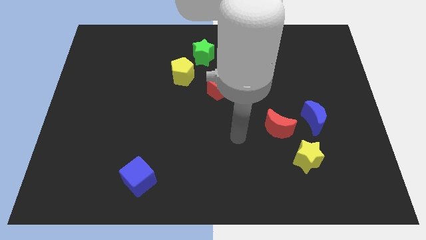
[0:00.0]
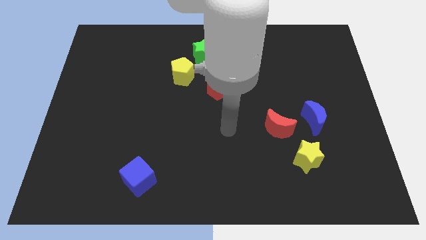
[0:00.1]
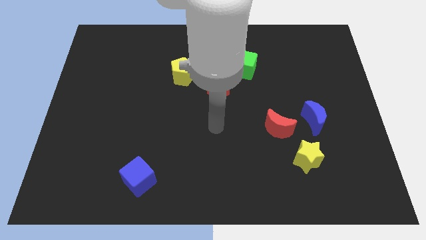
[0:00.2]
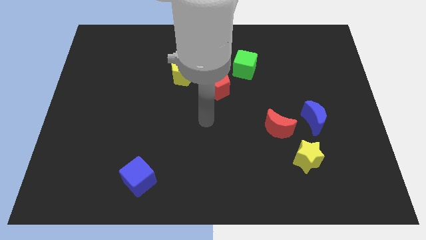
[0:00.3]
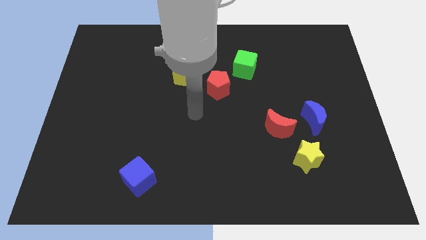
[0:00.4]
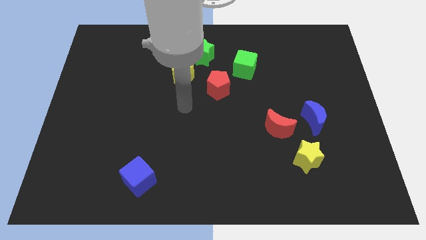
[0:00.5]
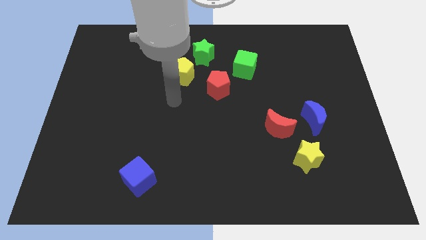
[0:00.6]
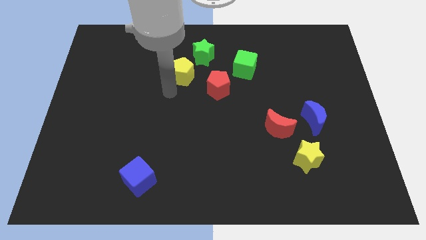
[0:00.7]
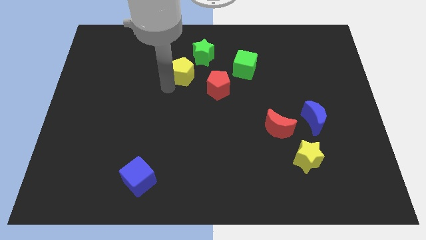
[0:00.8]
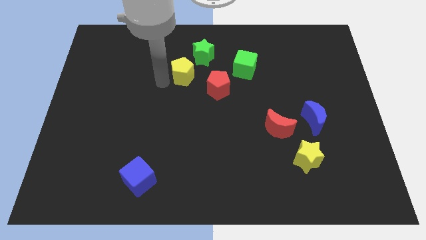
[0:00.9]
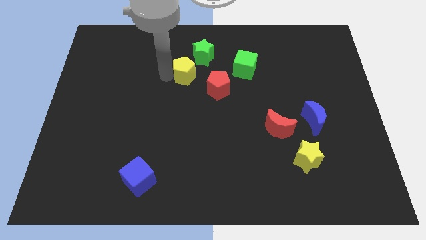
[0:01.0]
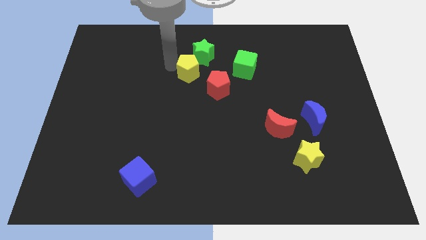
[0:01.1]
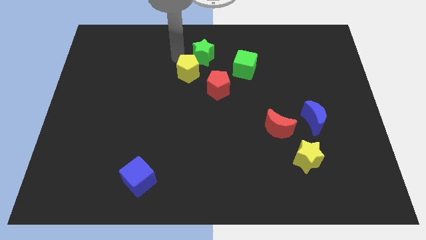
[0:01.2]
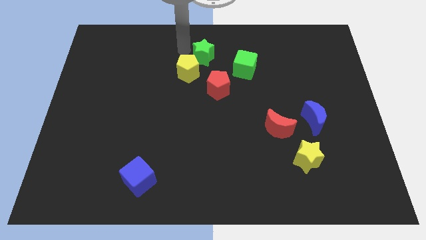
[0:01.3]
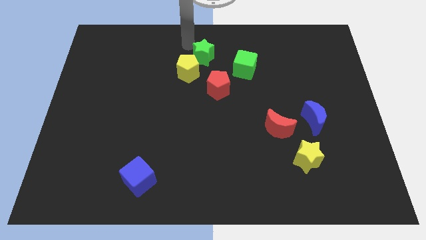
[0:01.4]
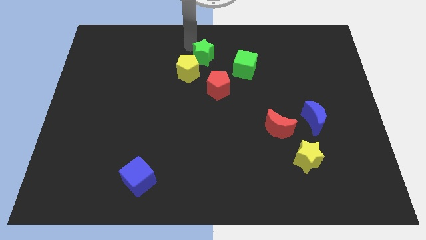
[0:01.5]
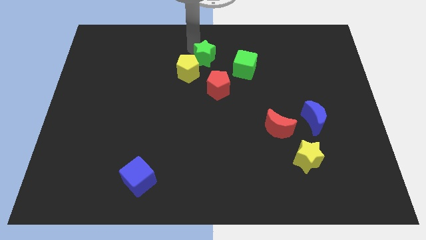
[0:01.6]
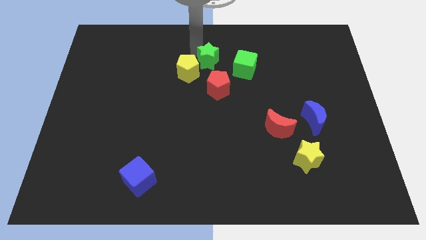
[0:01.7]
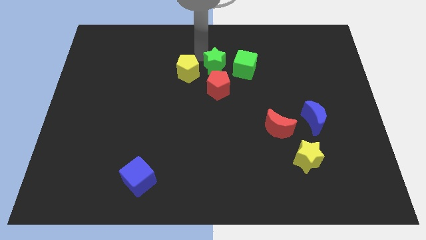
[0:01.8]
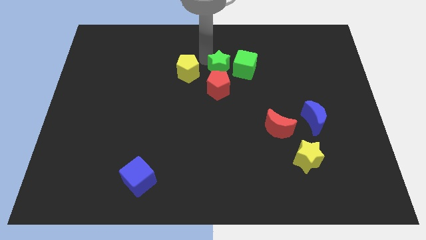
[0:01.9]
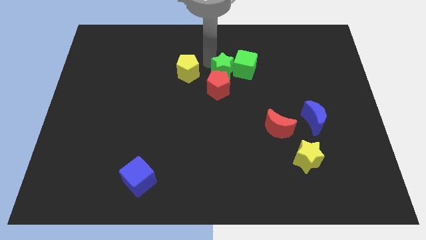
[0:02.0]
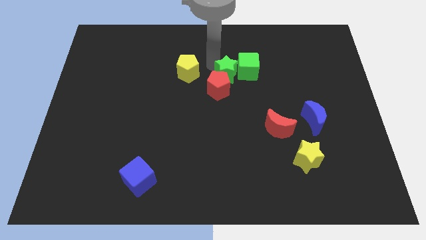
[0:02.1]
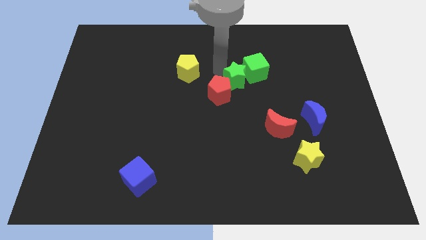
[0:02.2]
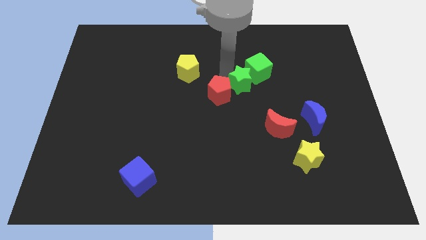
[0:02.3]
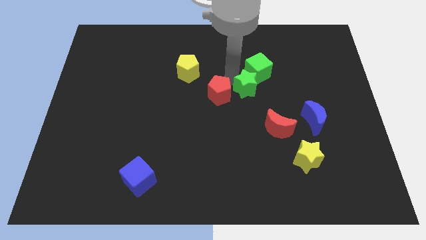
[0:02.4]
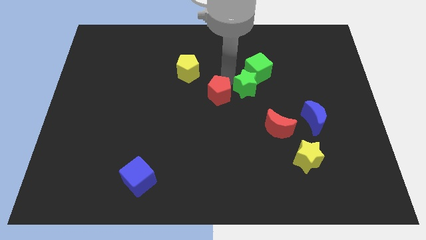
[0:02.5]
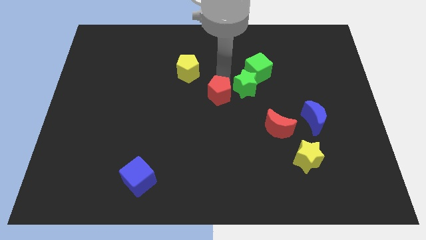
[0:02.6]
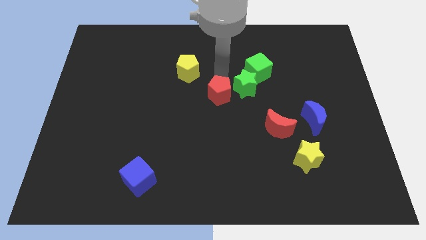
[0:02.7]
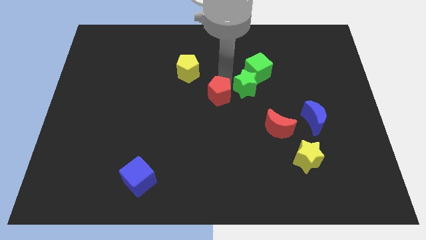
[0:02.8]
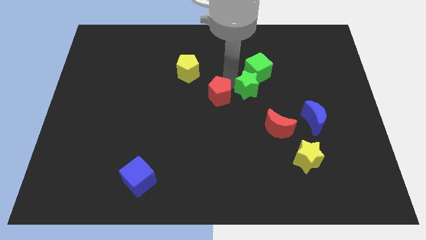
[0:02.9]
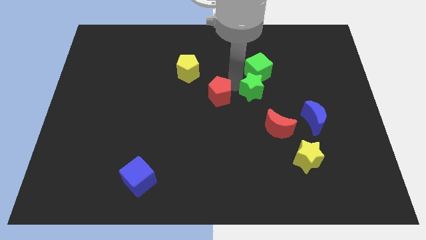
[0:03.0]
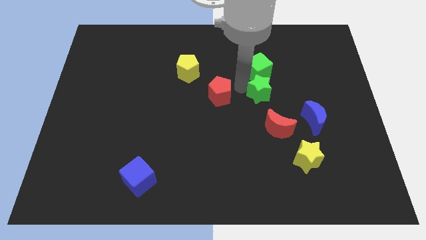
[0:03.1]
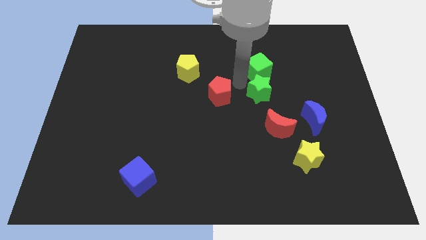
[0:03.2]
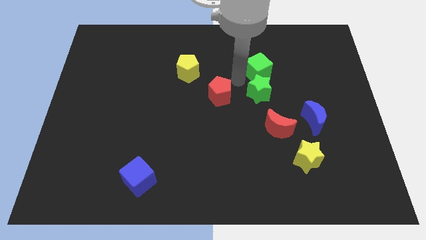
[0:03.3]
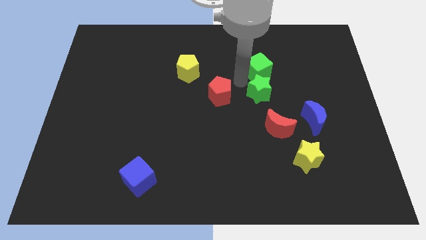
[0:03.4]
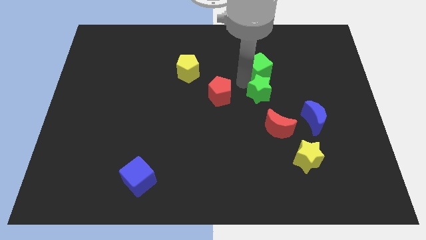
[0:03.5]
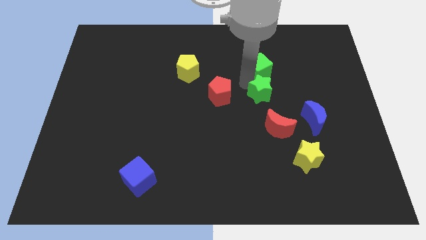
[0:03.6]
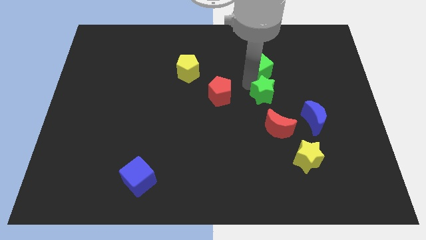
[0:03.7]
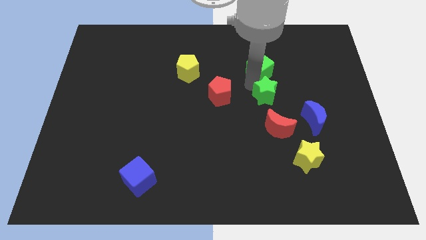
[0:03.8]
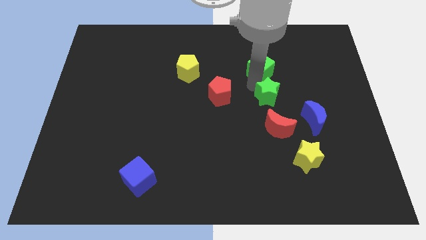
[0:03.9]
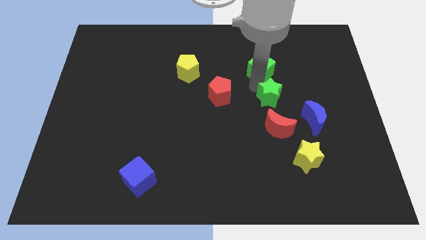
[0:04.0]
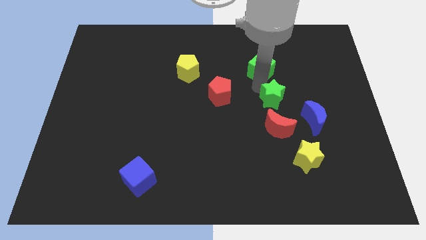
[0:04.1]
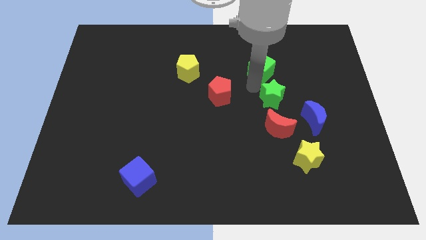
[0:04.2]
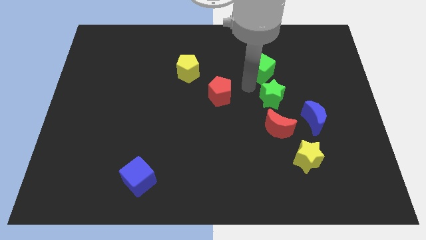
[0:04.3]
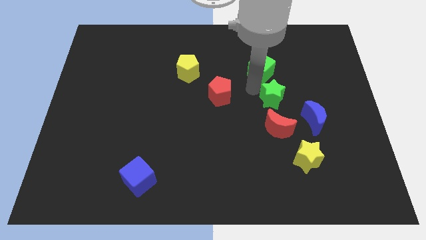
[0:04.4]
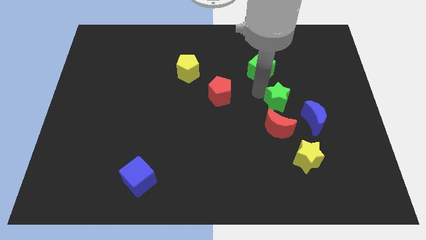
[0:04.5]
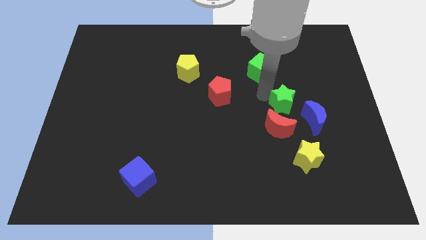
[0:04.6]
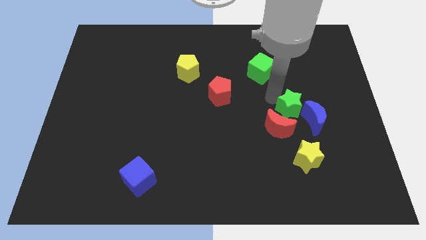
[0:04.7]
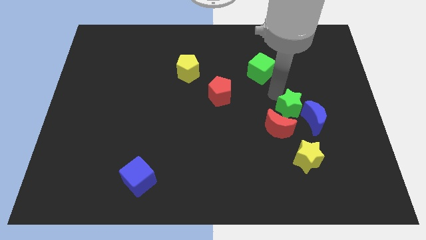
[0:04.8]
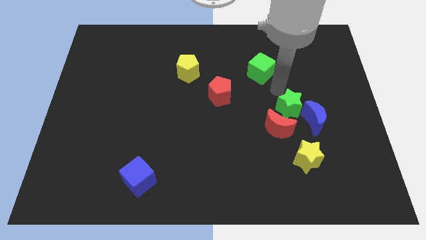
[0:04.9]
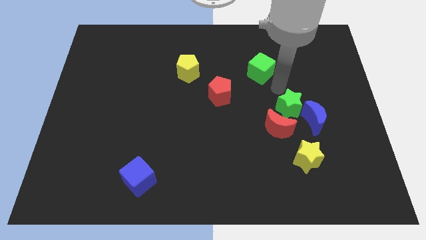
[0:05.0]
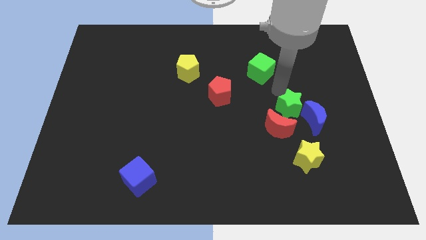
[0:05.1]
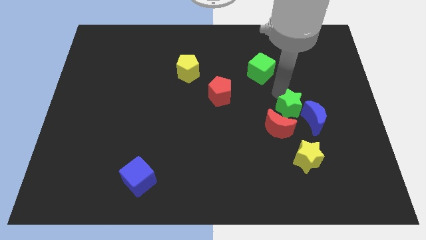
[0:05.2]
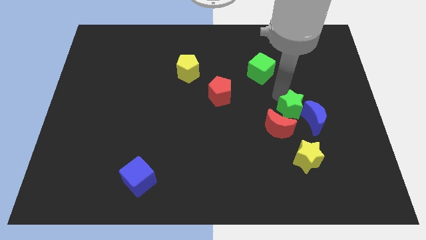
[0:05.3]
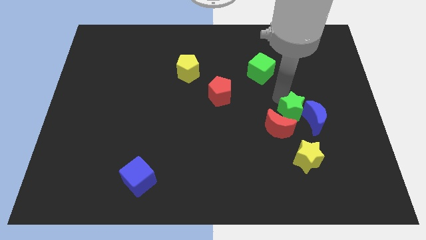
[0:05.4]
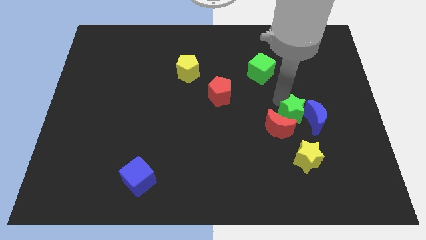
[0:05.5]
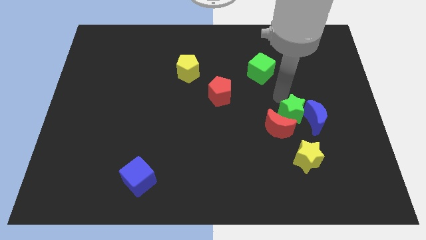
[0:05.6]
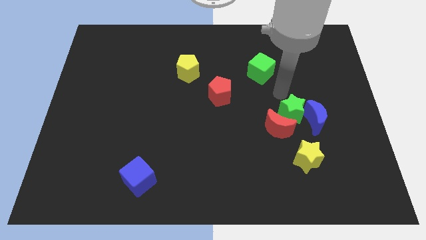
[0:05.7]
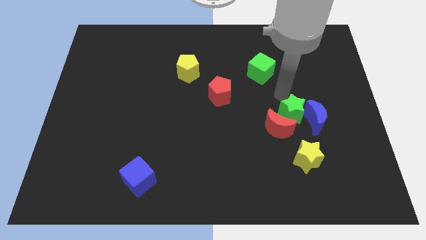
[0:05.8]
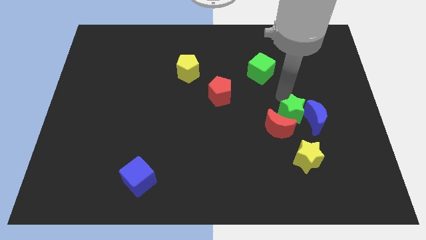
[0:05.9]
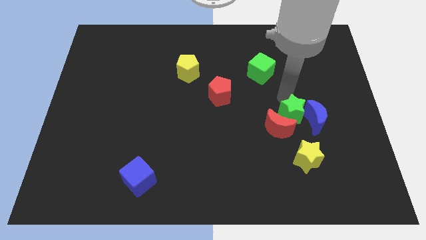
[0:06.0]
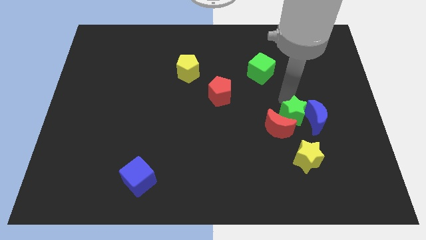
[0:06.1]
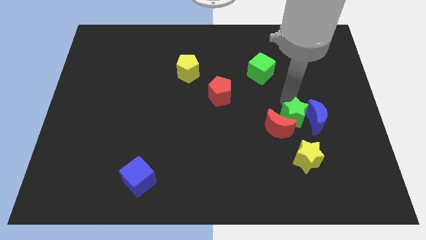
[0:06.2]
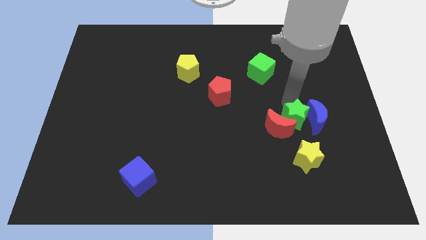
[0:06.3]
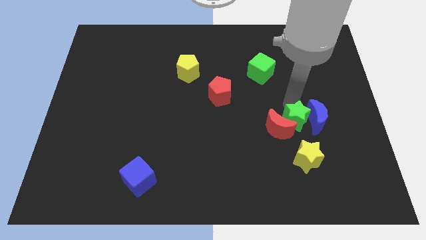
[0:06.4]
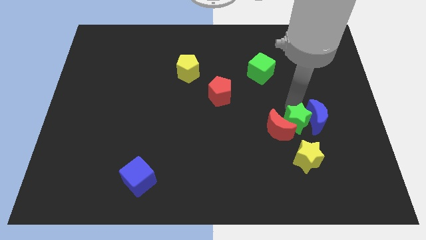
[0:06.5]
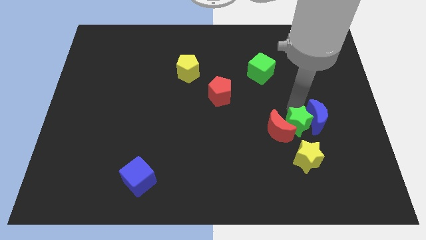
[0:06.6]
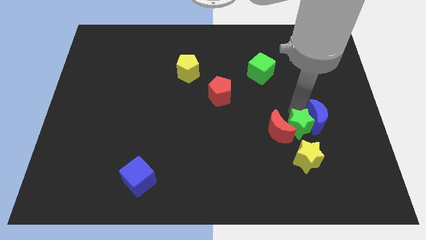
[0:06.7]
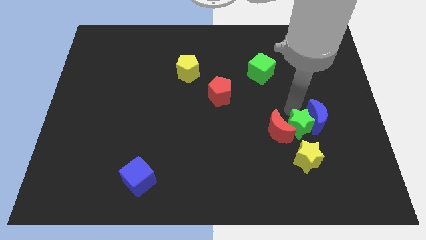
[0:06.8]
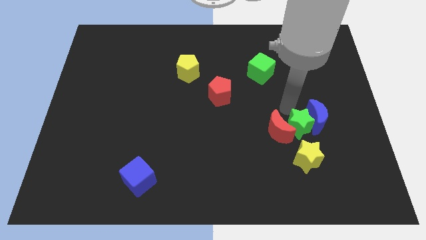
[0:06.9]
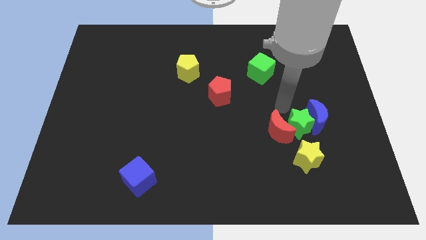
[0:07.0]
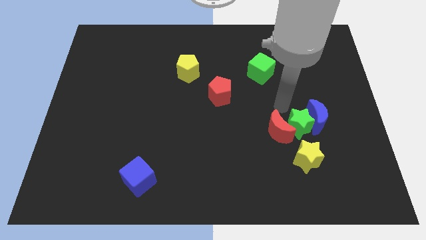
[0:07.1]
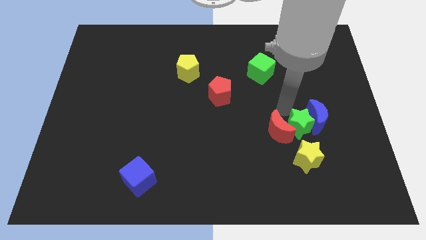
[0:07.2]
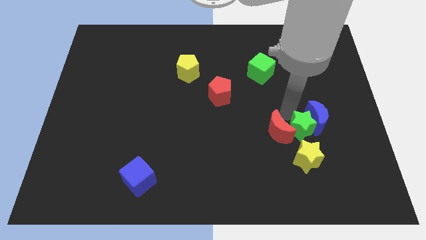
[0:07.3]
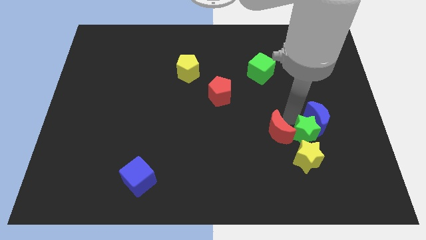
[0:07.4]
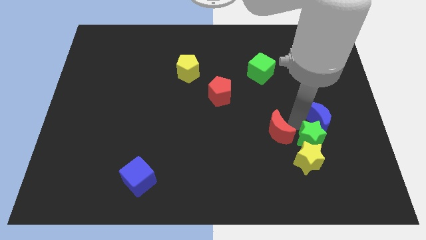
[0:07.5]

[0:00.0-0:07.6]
move the green star next to the yellow star
